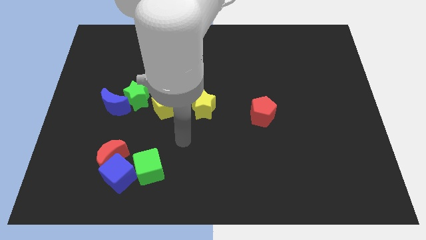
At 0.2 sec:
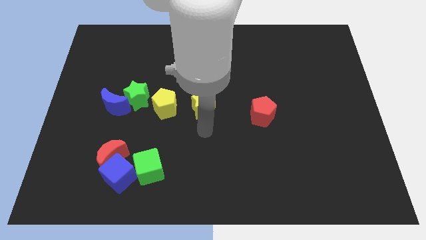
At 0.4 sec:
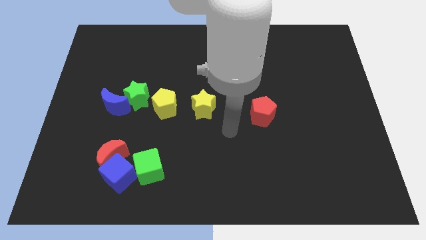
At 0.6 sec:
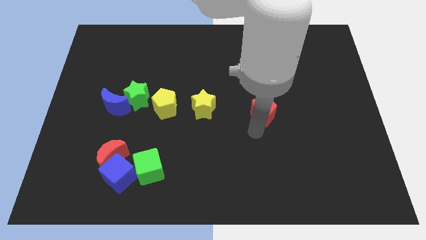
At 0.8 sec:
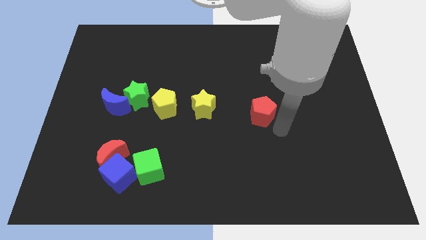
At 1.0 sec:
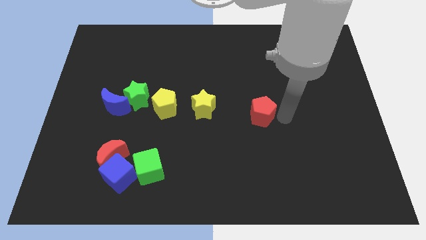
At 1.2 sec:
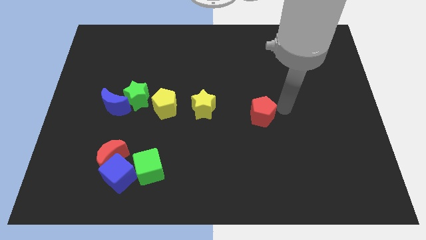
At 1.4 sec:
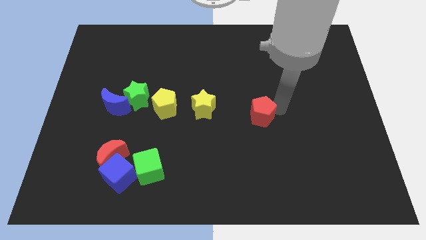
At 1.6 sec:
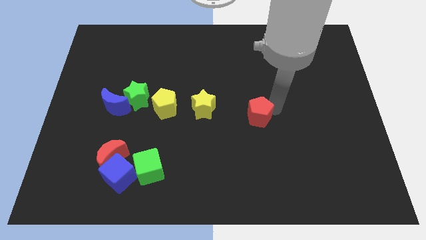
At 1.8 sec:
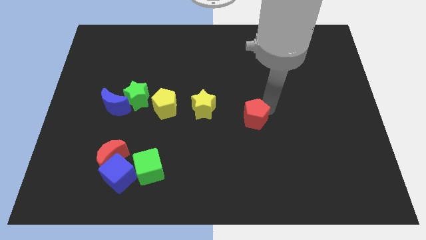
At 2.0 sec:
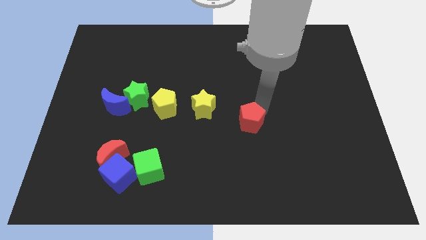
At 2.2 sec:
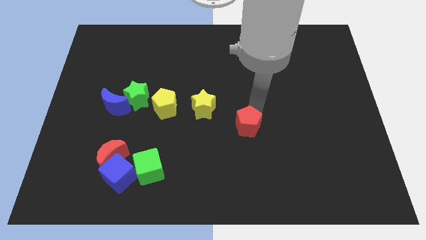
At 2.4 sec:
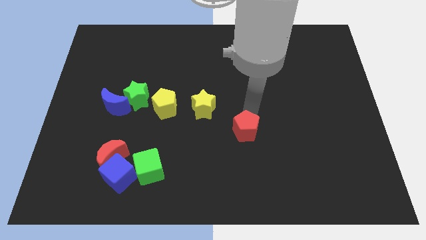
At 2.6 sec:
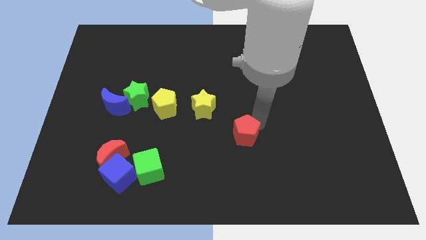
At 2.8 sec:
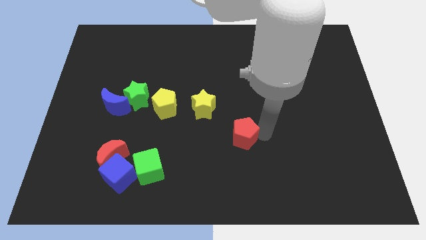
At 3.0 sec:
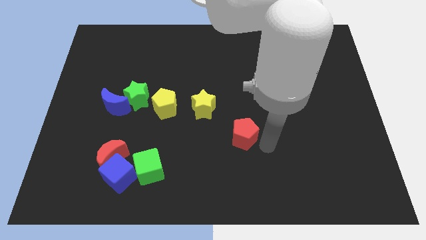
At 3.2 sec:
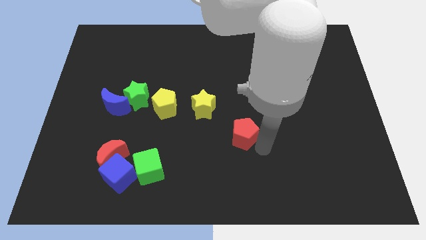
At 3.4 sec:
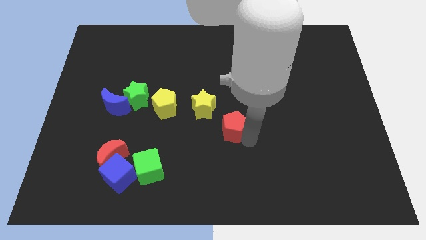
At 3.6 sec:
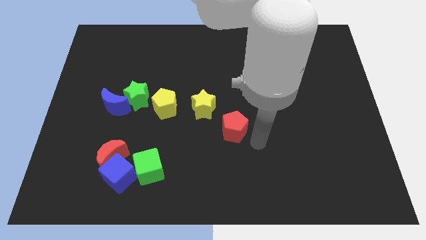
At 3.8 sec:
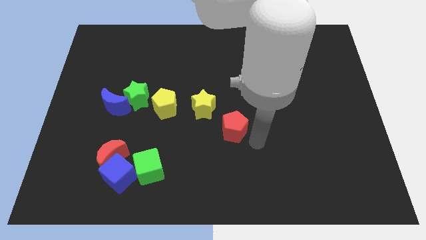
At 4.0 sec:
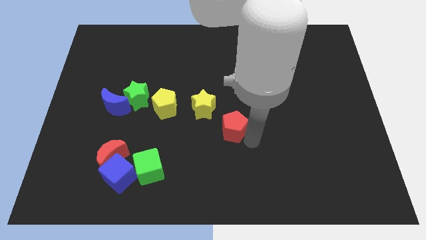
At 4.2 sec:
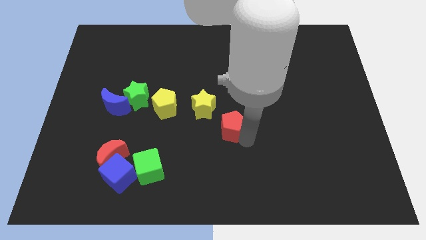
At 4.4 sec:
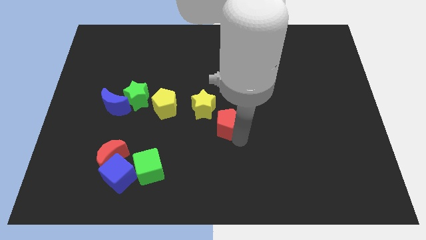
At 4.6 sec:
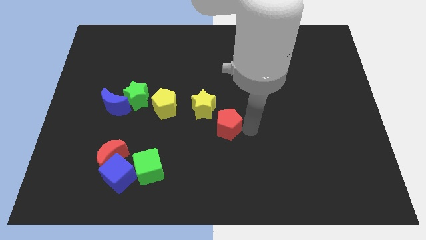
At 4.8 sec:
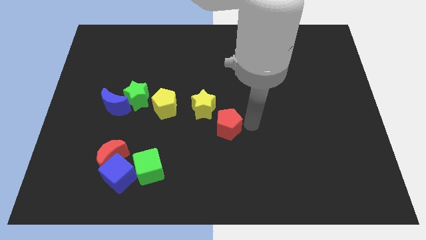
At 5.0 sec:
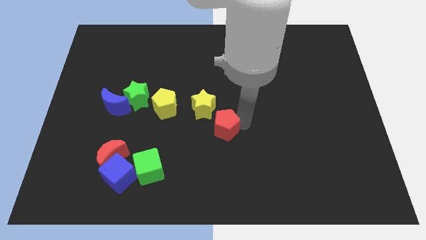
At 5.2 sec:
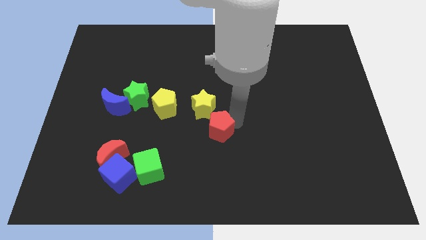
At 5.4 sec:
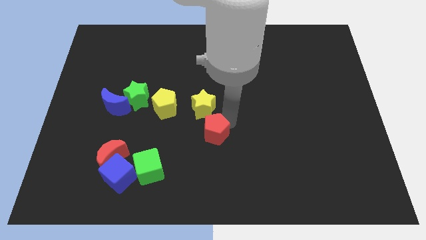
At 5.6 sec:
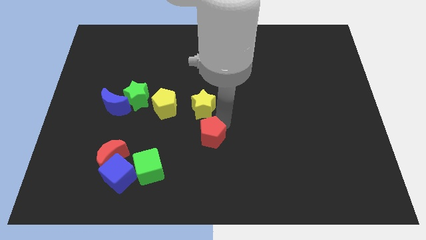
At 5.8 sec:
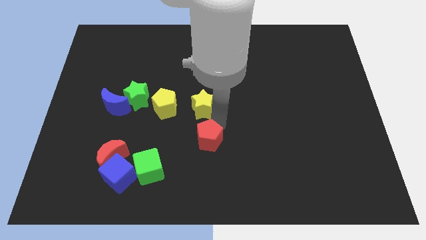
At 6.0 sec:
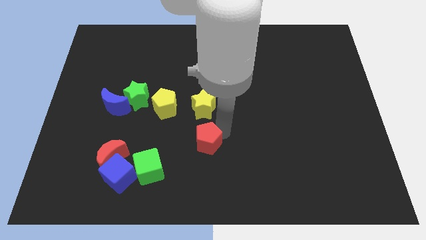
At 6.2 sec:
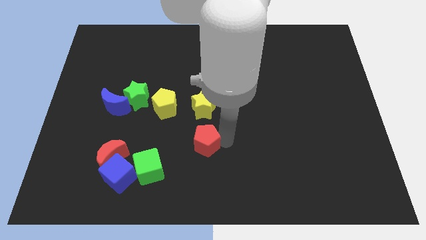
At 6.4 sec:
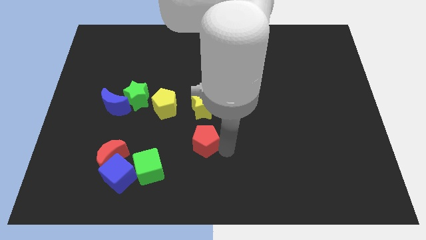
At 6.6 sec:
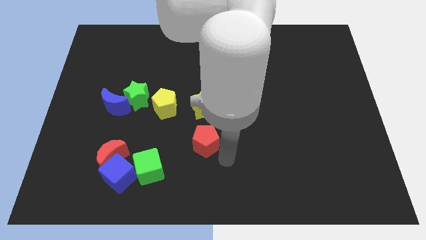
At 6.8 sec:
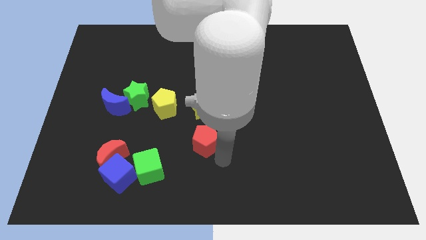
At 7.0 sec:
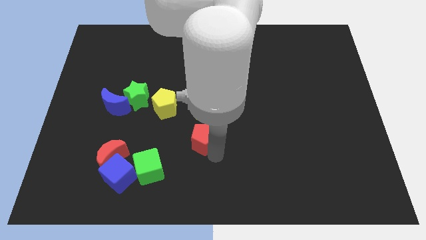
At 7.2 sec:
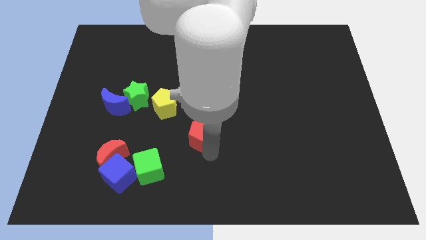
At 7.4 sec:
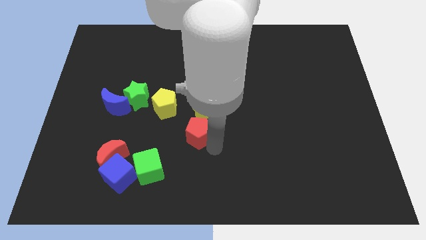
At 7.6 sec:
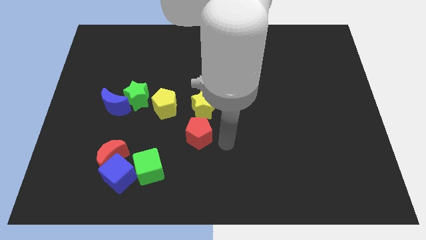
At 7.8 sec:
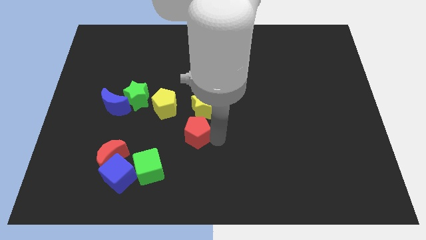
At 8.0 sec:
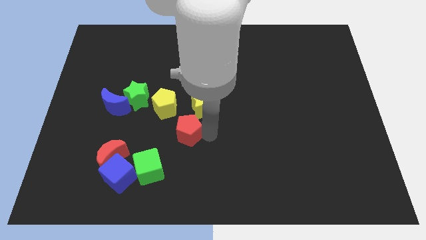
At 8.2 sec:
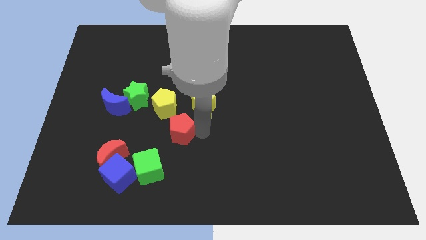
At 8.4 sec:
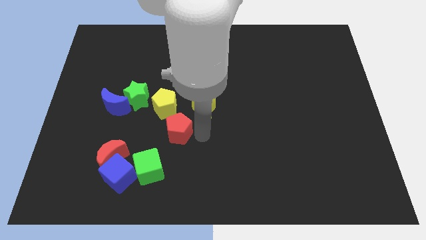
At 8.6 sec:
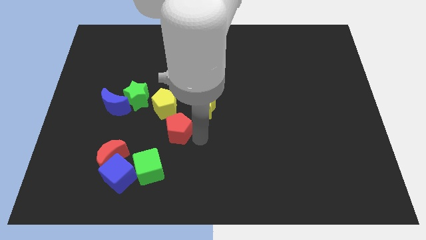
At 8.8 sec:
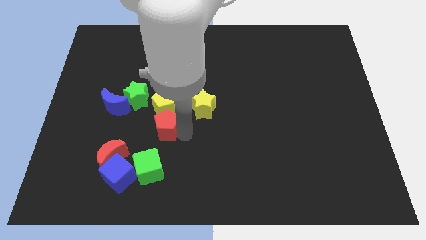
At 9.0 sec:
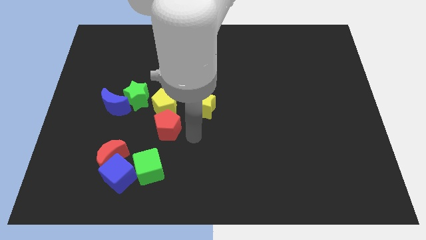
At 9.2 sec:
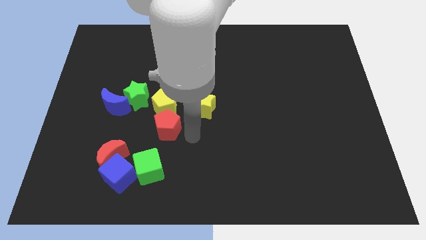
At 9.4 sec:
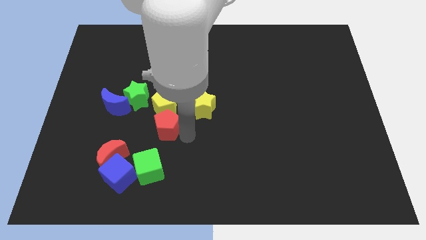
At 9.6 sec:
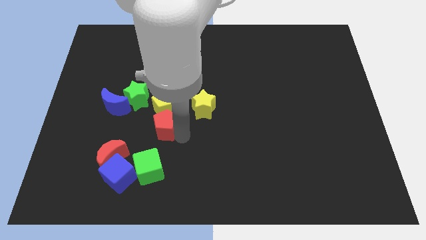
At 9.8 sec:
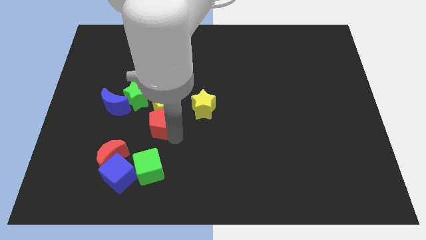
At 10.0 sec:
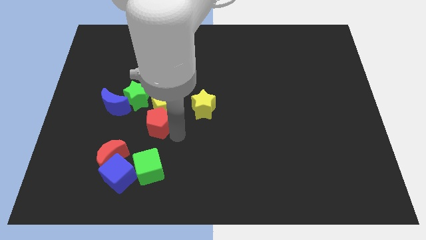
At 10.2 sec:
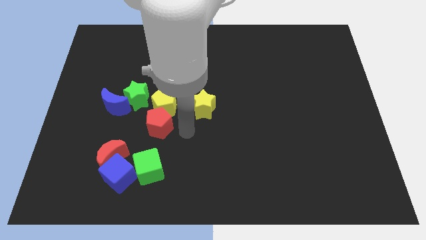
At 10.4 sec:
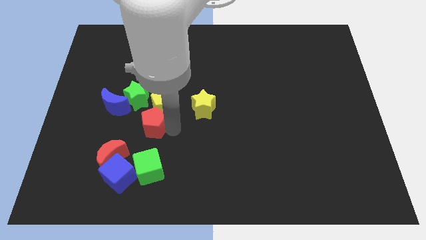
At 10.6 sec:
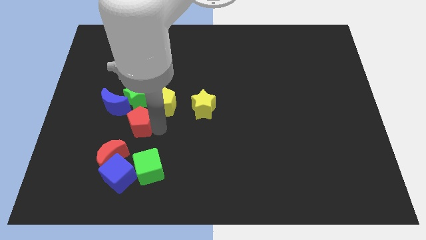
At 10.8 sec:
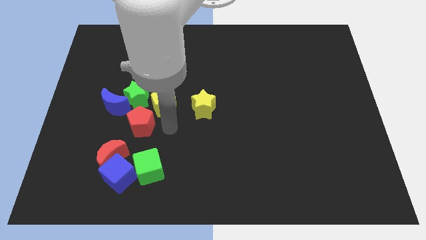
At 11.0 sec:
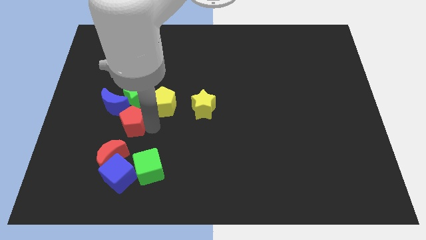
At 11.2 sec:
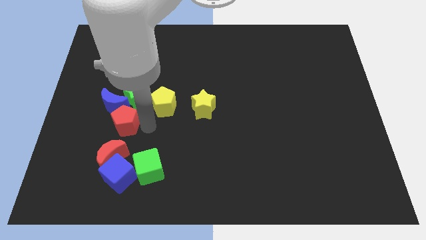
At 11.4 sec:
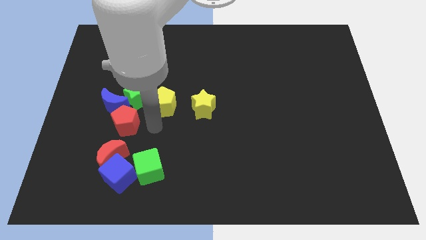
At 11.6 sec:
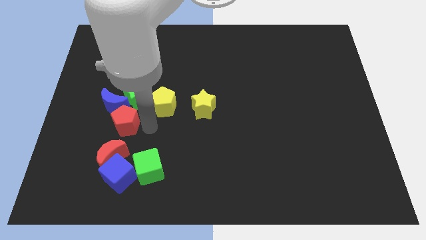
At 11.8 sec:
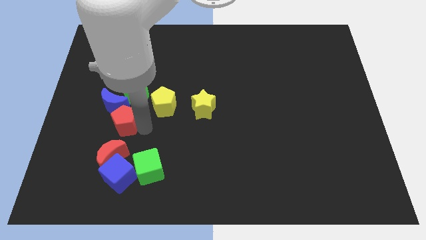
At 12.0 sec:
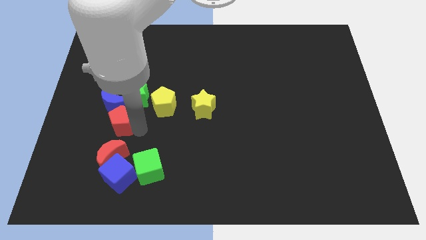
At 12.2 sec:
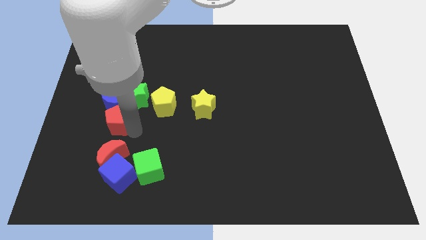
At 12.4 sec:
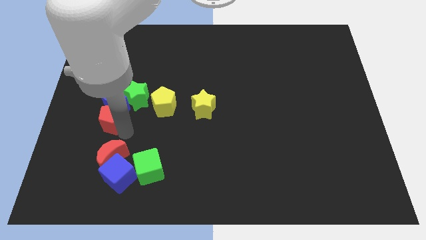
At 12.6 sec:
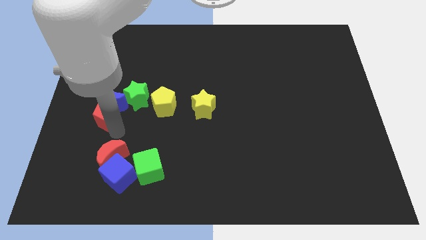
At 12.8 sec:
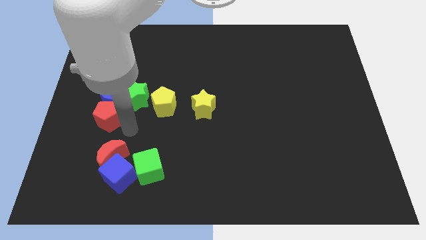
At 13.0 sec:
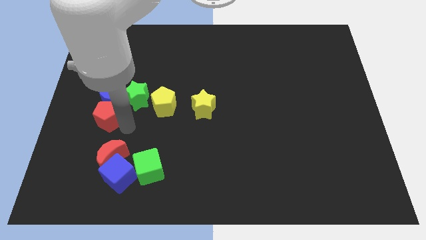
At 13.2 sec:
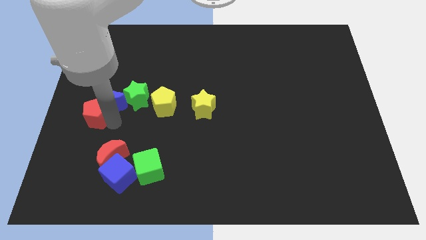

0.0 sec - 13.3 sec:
move the red pentagon to the left side of the board

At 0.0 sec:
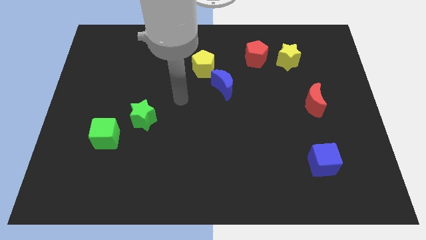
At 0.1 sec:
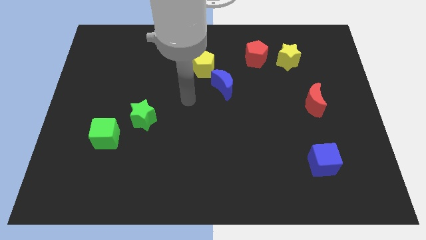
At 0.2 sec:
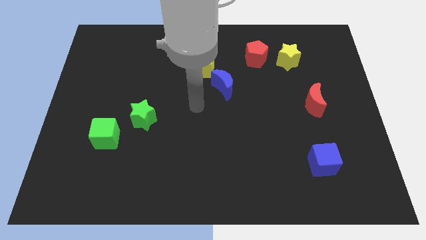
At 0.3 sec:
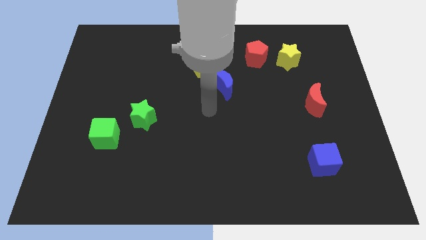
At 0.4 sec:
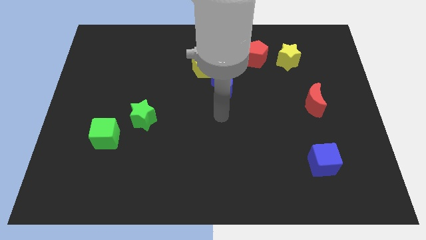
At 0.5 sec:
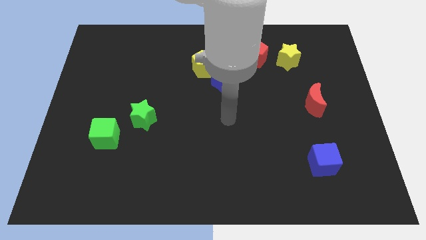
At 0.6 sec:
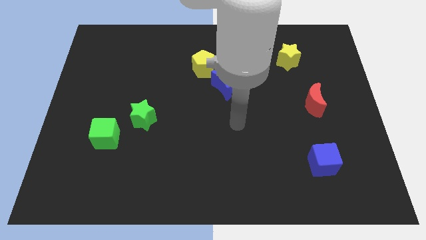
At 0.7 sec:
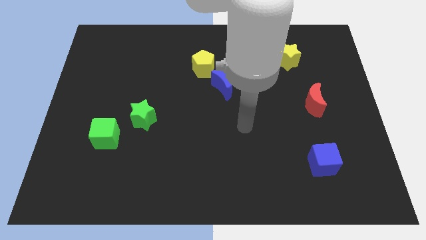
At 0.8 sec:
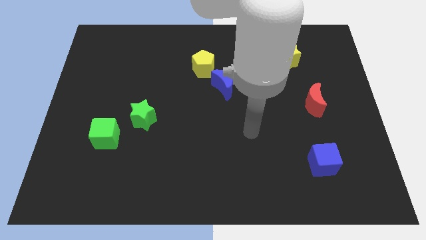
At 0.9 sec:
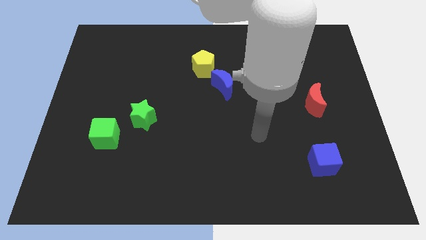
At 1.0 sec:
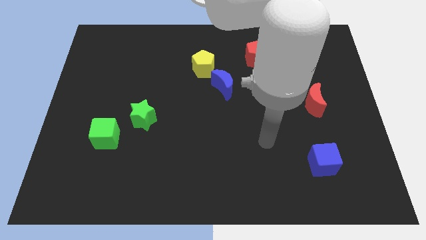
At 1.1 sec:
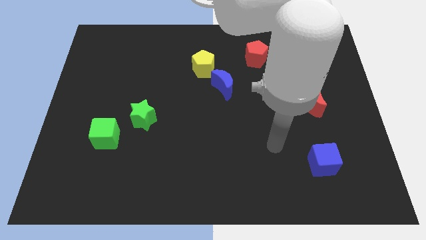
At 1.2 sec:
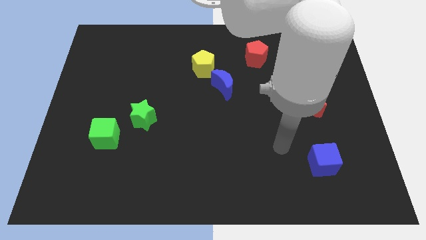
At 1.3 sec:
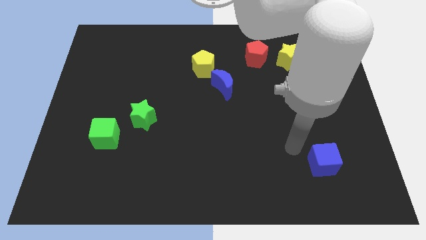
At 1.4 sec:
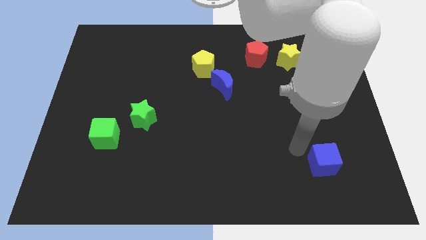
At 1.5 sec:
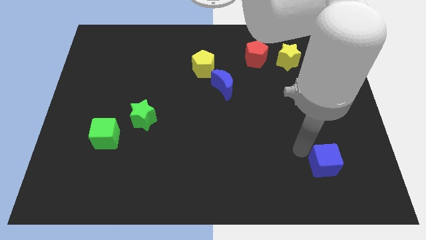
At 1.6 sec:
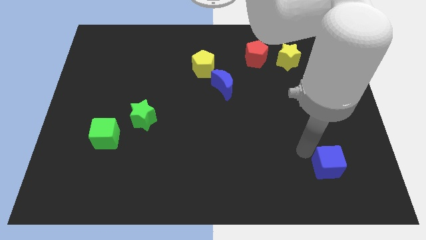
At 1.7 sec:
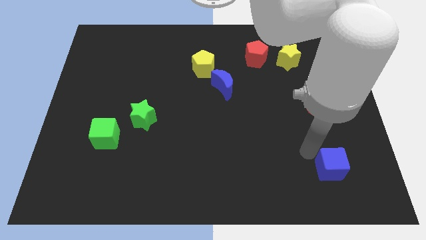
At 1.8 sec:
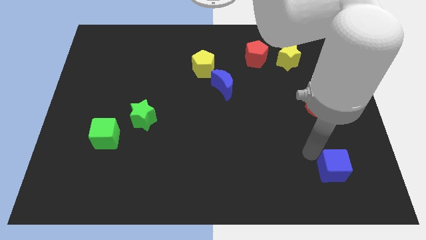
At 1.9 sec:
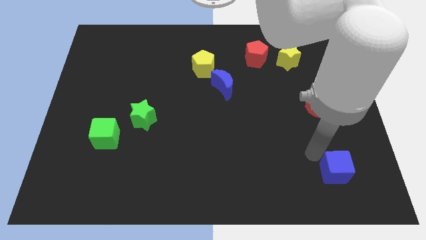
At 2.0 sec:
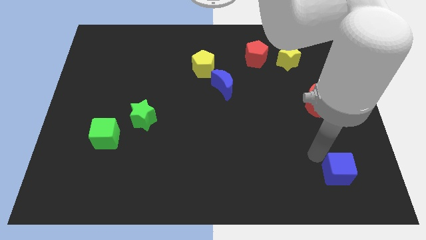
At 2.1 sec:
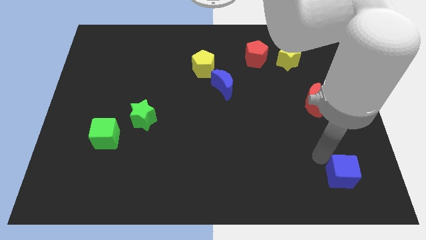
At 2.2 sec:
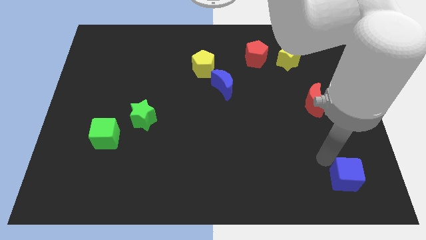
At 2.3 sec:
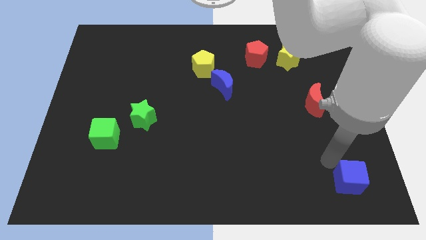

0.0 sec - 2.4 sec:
slide the blue cube to the bottom right of the board
